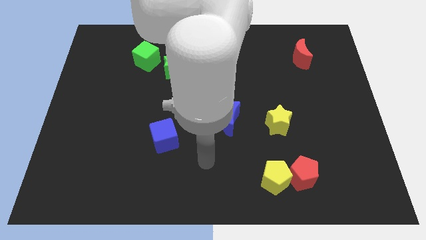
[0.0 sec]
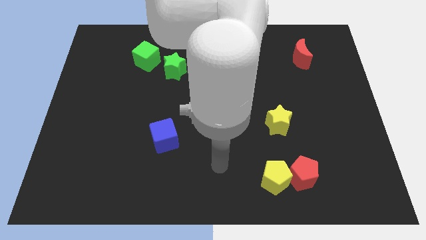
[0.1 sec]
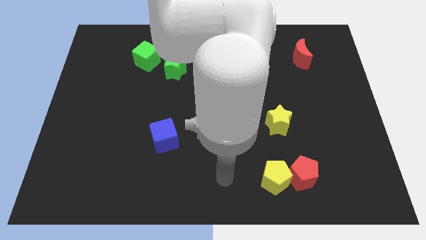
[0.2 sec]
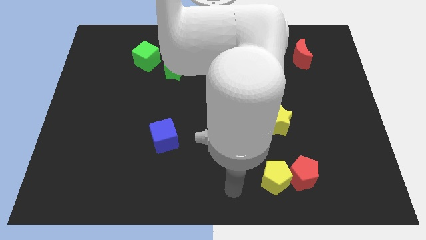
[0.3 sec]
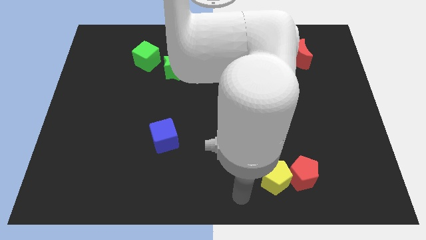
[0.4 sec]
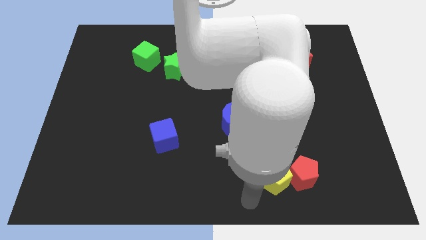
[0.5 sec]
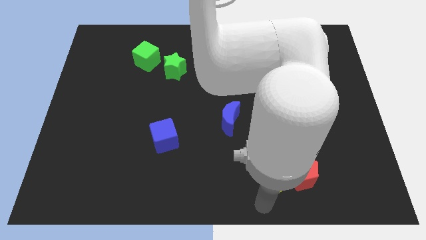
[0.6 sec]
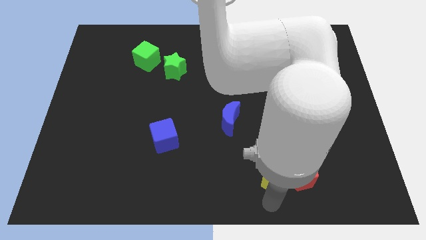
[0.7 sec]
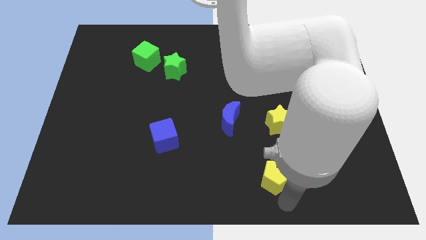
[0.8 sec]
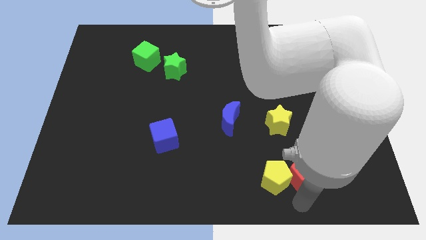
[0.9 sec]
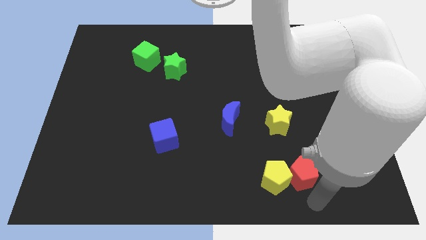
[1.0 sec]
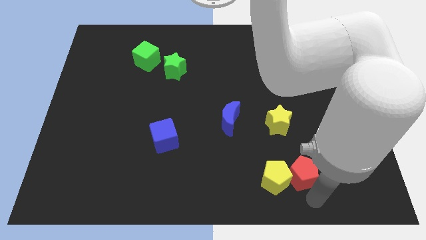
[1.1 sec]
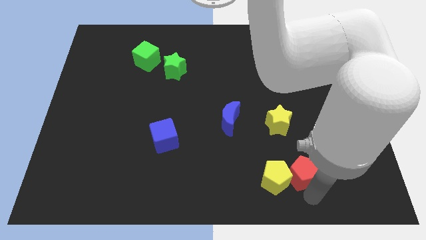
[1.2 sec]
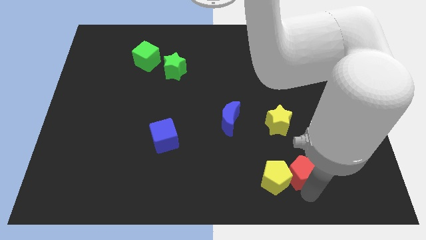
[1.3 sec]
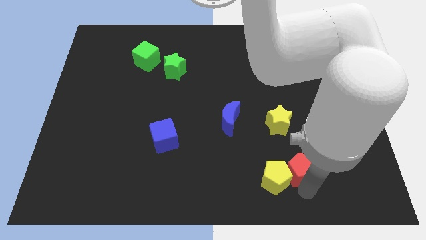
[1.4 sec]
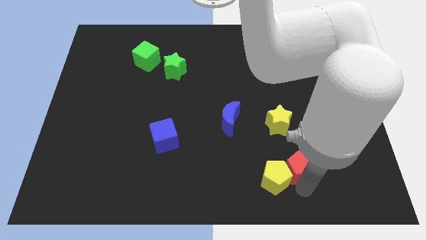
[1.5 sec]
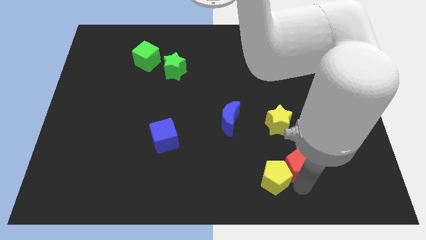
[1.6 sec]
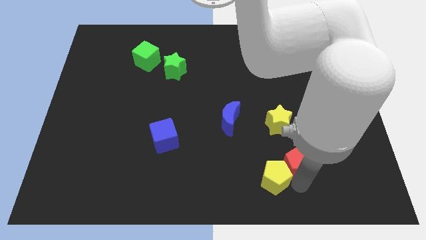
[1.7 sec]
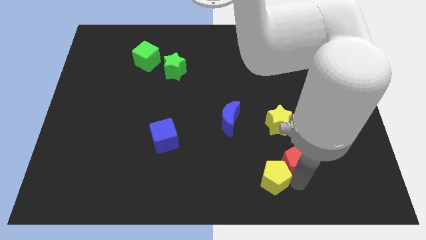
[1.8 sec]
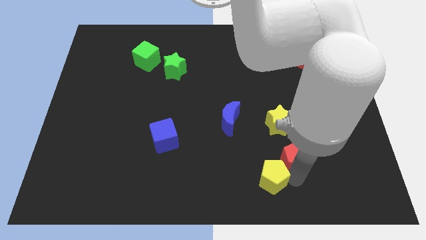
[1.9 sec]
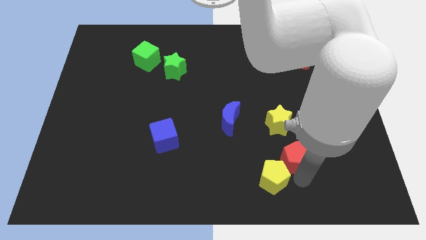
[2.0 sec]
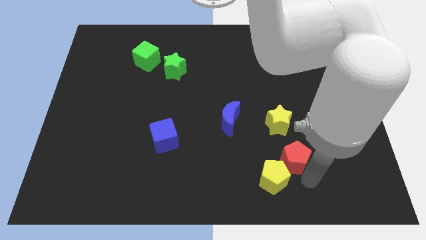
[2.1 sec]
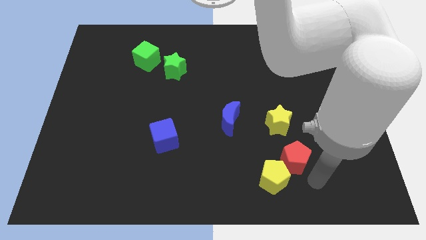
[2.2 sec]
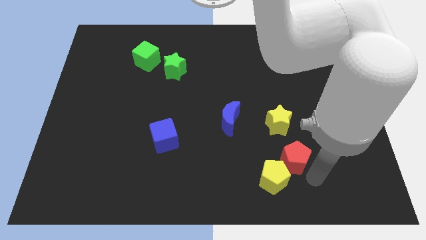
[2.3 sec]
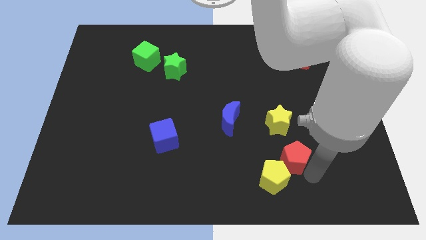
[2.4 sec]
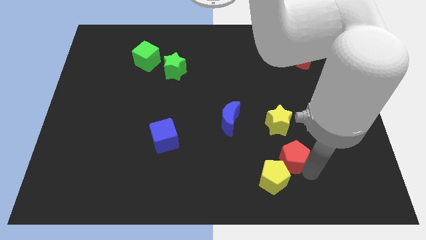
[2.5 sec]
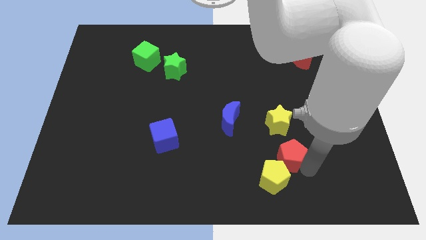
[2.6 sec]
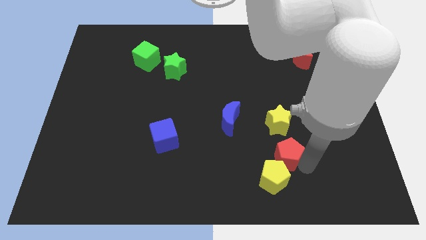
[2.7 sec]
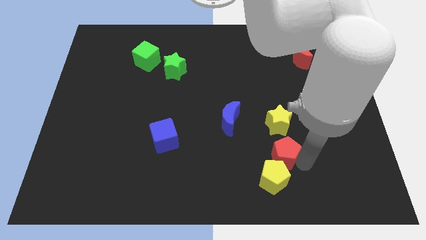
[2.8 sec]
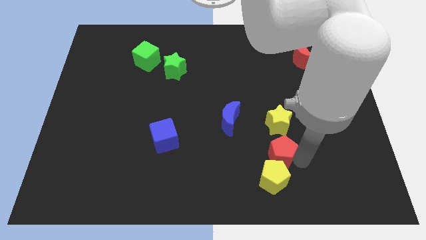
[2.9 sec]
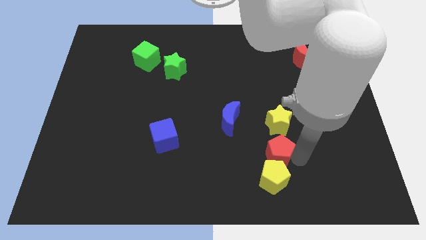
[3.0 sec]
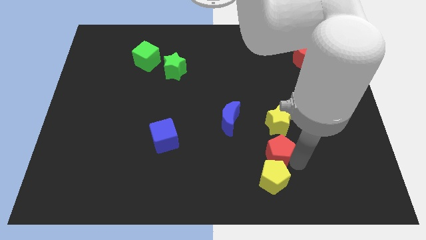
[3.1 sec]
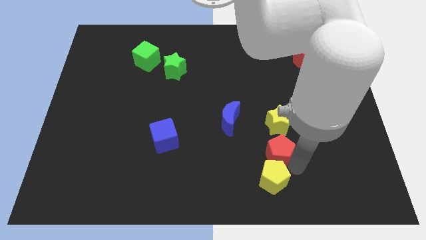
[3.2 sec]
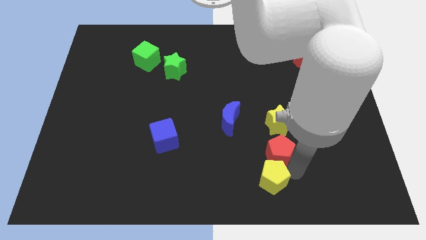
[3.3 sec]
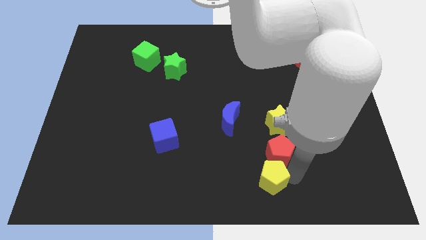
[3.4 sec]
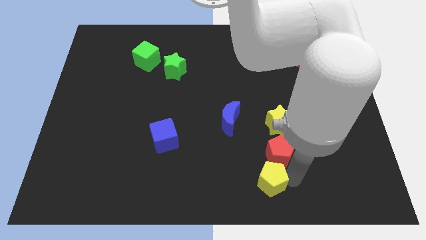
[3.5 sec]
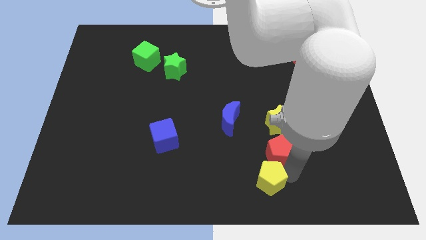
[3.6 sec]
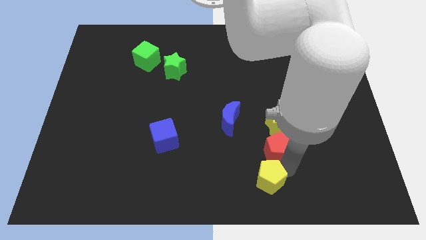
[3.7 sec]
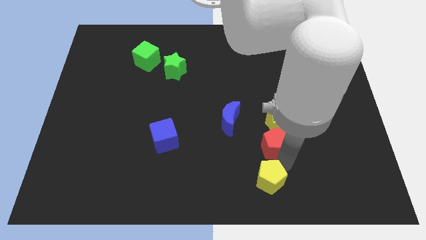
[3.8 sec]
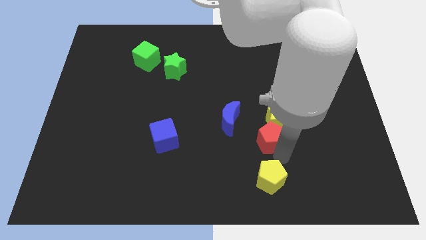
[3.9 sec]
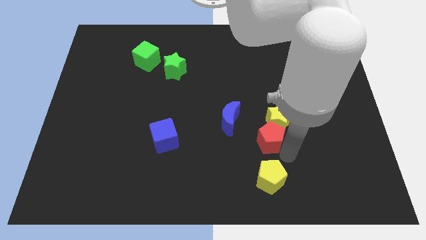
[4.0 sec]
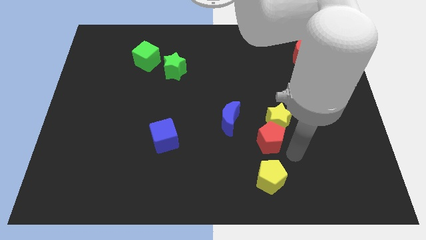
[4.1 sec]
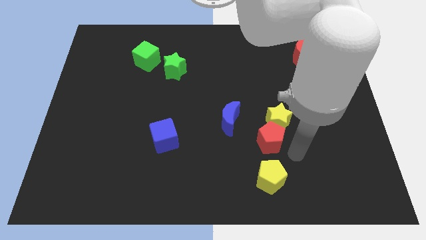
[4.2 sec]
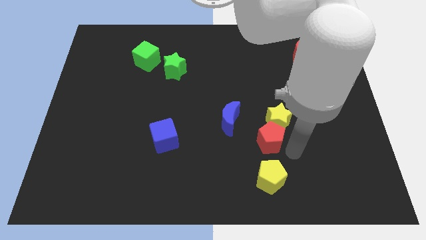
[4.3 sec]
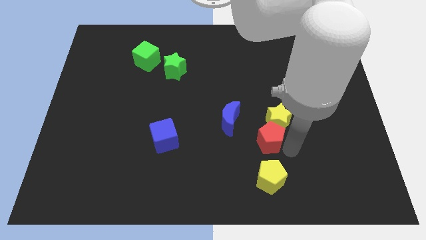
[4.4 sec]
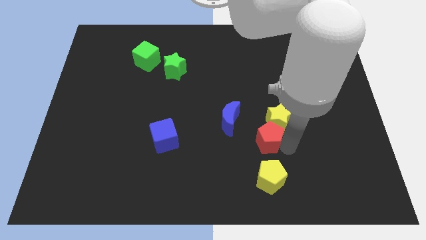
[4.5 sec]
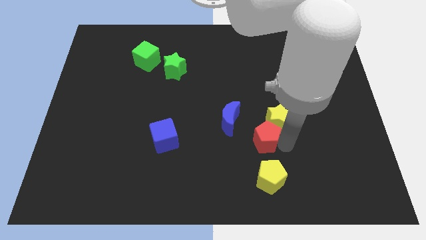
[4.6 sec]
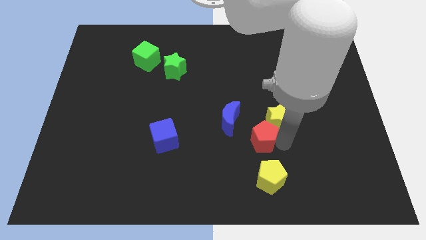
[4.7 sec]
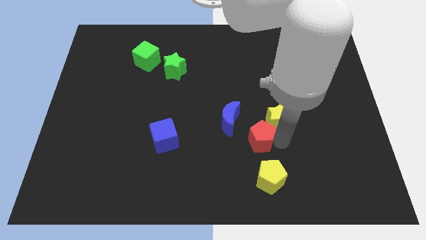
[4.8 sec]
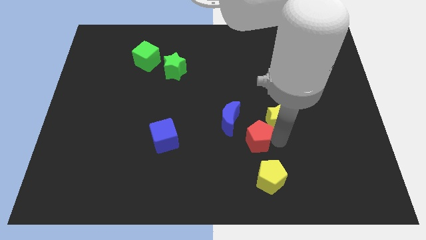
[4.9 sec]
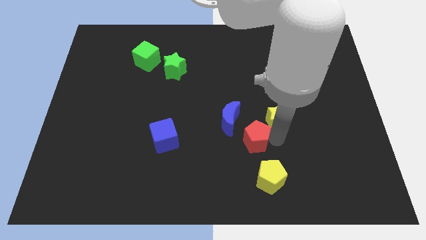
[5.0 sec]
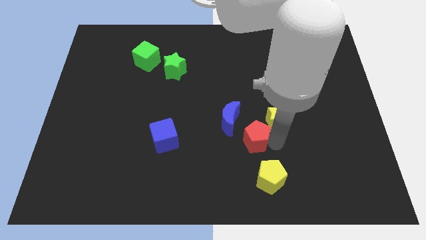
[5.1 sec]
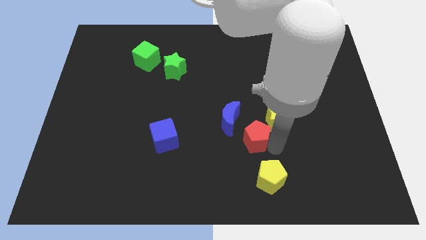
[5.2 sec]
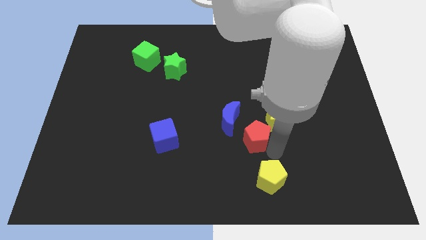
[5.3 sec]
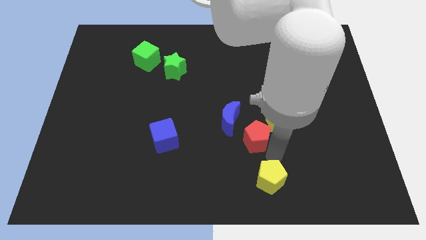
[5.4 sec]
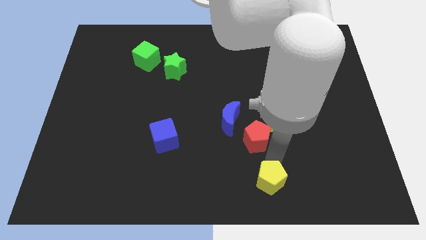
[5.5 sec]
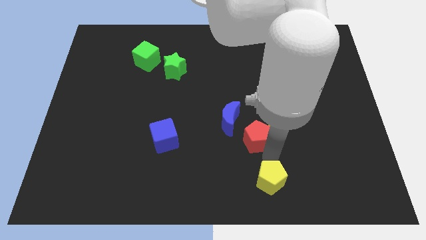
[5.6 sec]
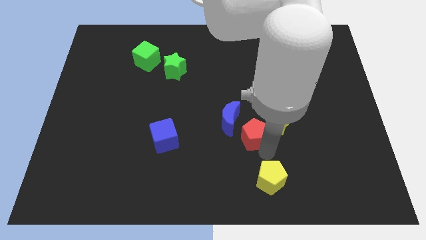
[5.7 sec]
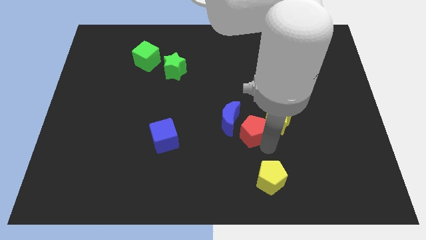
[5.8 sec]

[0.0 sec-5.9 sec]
move the red pentagon to the blue moon

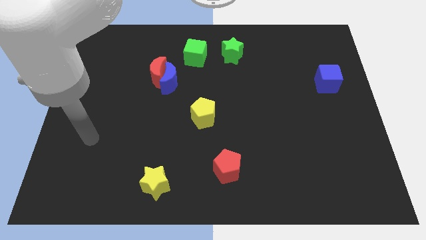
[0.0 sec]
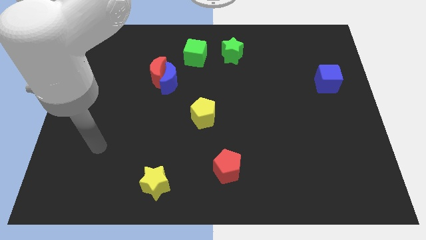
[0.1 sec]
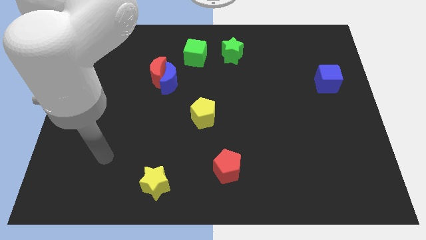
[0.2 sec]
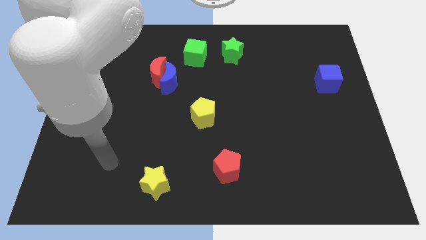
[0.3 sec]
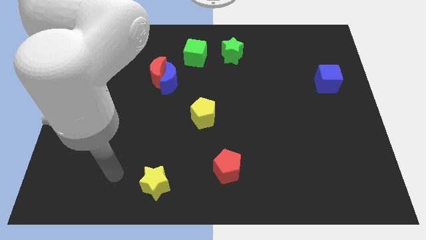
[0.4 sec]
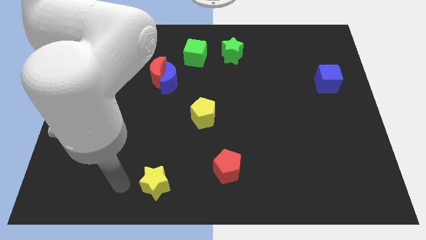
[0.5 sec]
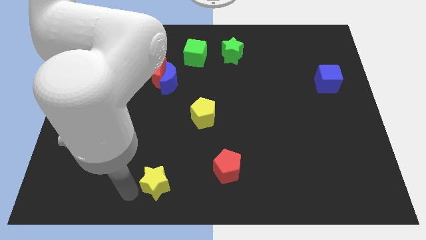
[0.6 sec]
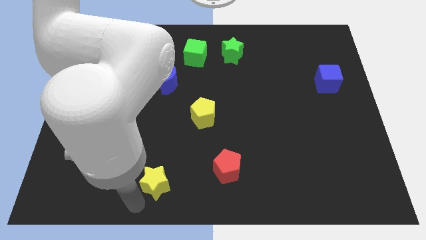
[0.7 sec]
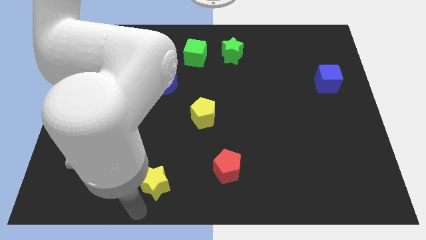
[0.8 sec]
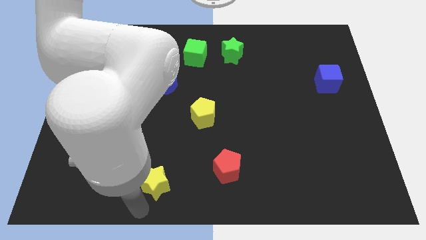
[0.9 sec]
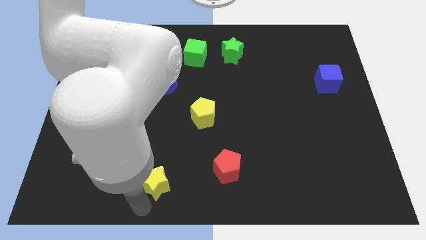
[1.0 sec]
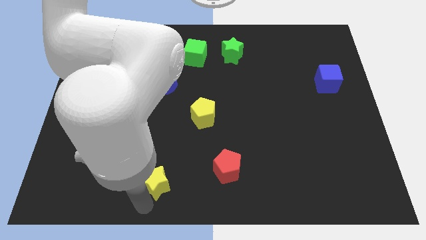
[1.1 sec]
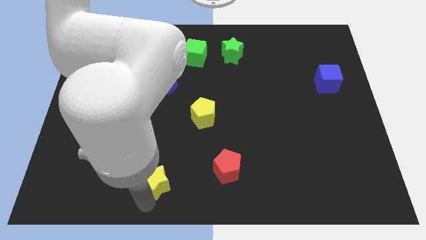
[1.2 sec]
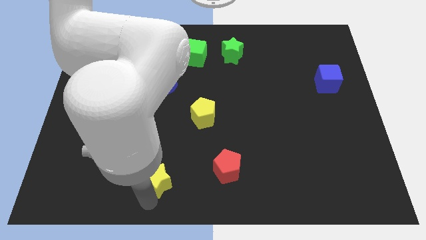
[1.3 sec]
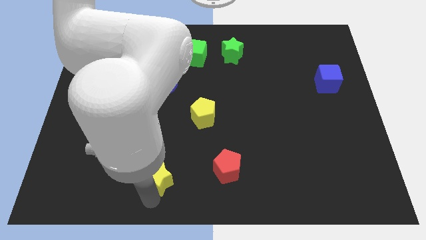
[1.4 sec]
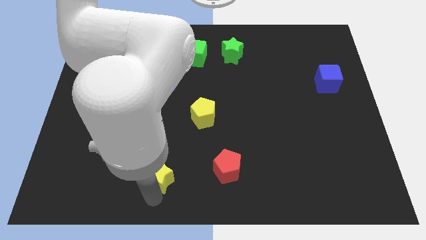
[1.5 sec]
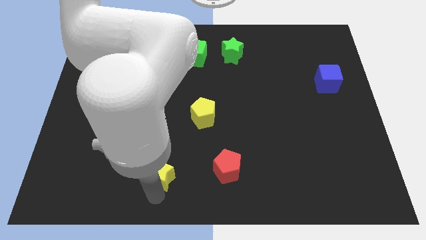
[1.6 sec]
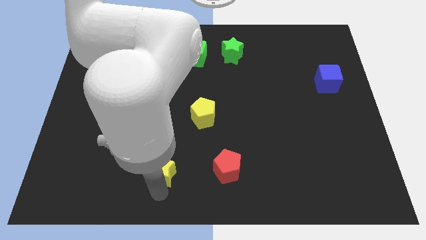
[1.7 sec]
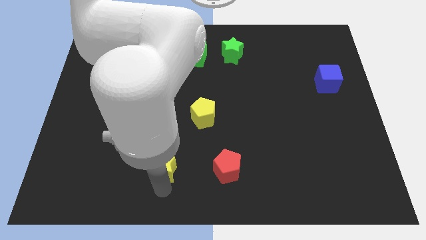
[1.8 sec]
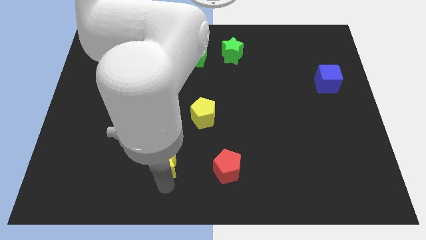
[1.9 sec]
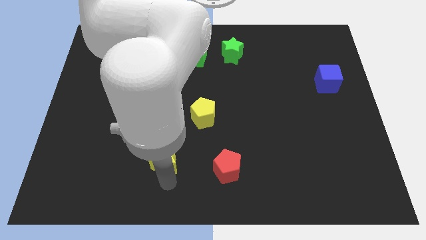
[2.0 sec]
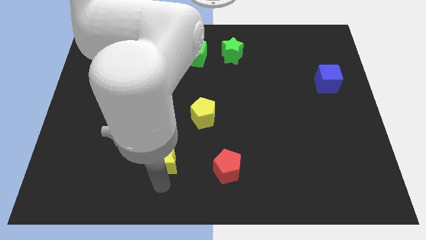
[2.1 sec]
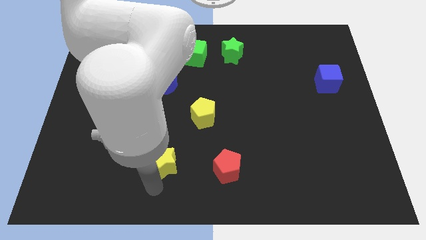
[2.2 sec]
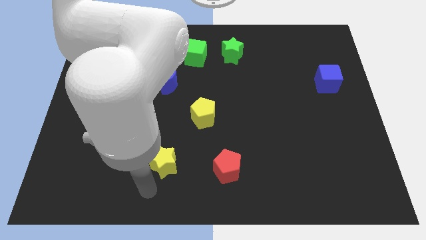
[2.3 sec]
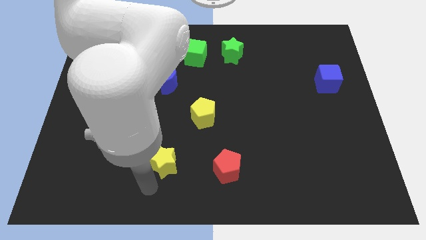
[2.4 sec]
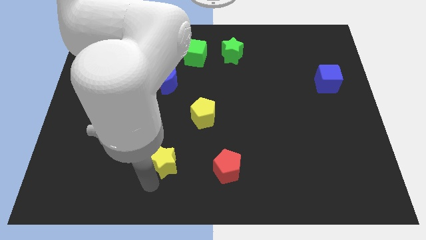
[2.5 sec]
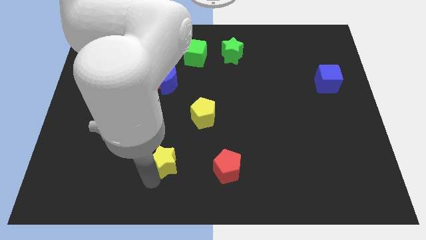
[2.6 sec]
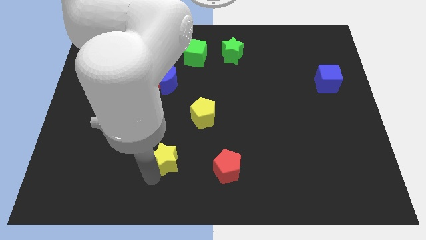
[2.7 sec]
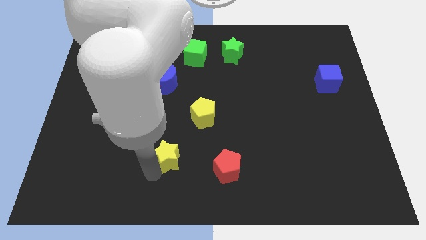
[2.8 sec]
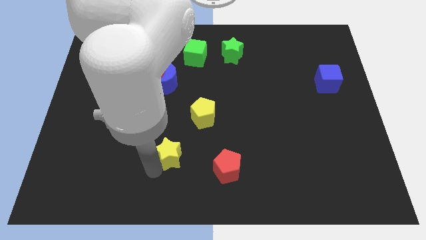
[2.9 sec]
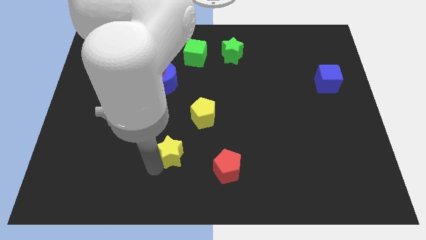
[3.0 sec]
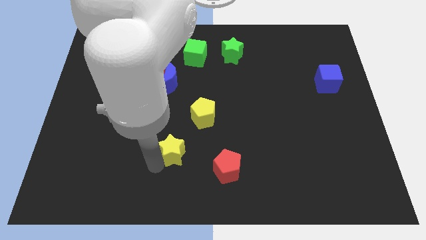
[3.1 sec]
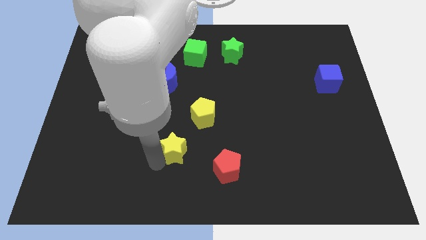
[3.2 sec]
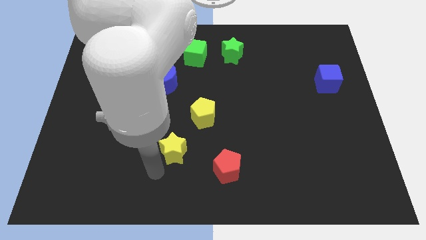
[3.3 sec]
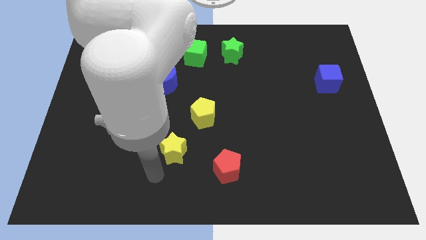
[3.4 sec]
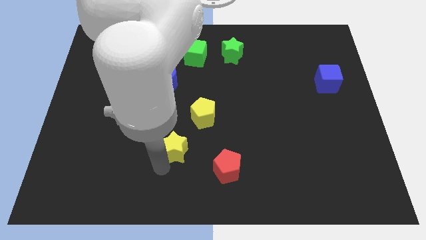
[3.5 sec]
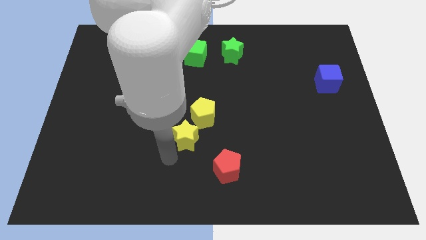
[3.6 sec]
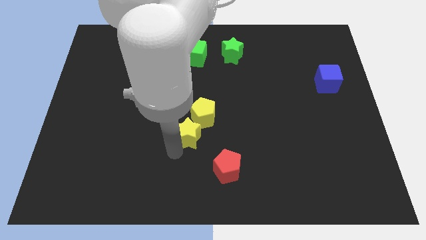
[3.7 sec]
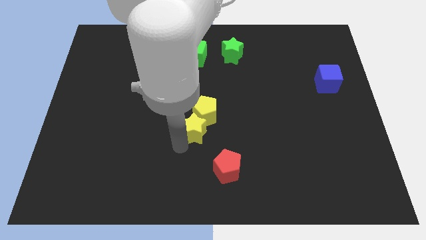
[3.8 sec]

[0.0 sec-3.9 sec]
slide the yellow star close to the yellow pentagon
